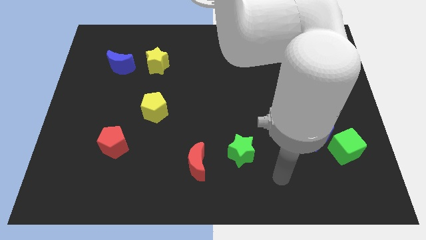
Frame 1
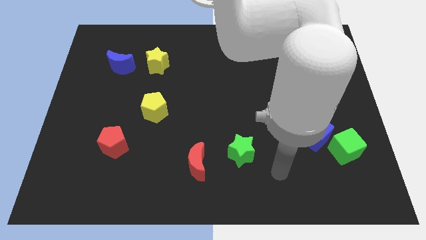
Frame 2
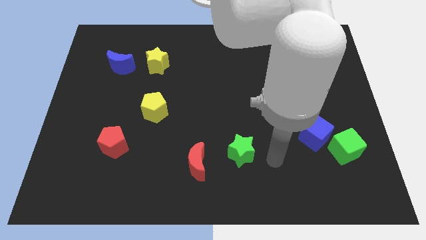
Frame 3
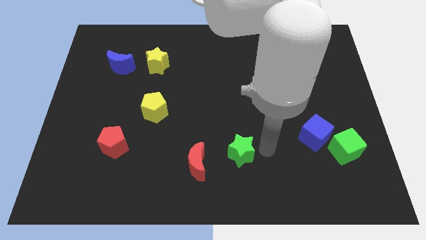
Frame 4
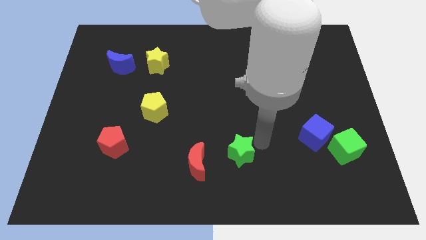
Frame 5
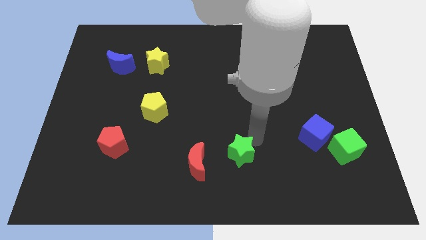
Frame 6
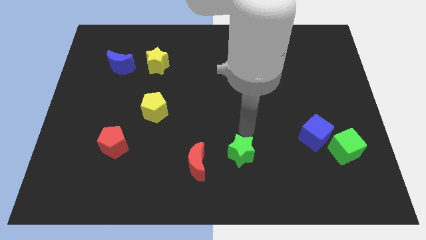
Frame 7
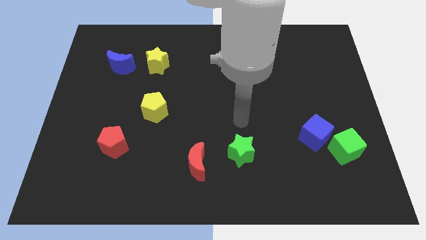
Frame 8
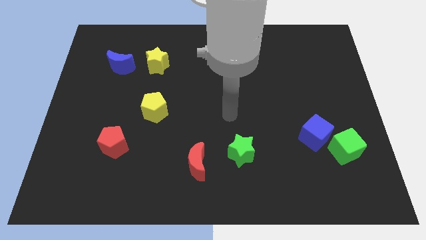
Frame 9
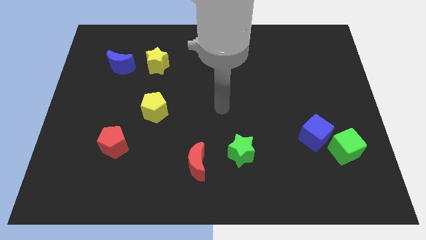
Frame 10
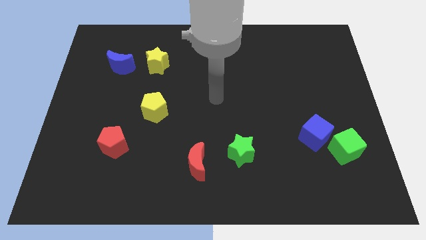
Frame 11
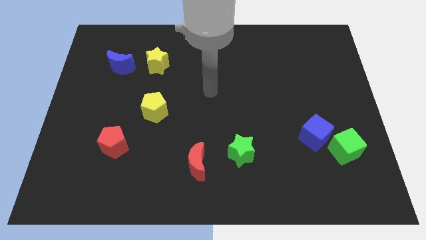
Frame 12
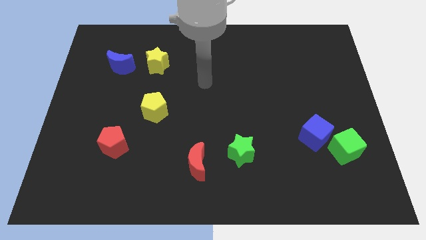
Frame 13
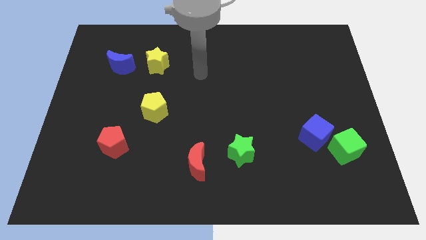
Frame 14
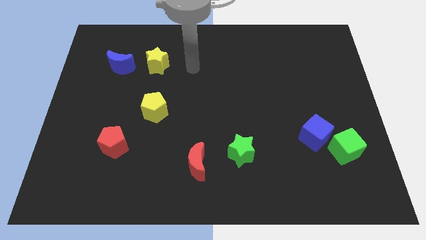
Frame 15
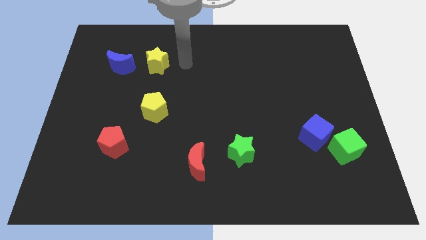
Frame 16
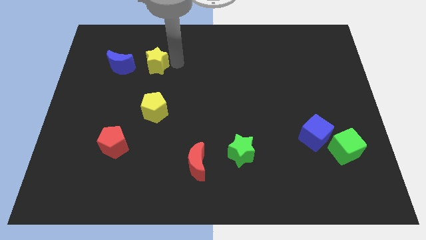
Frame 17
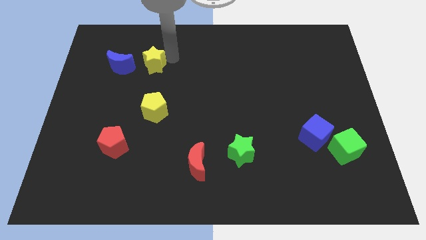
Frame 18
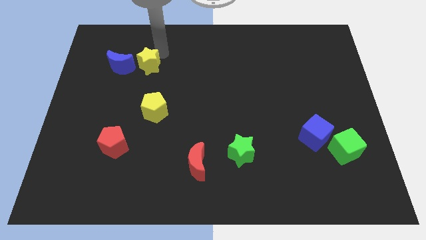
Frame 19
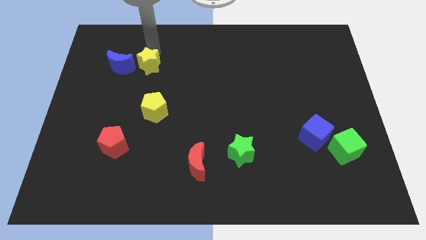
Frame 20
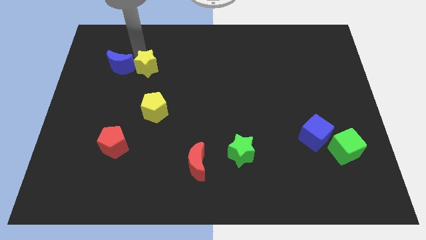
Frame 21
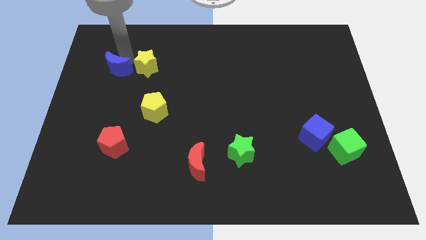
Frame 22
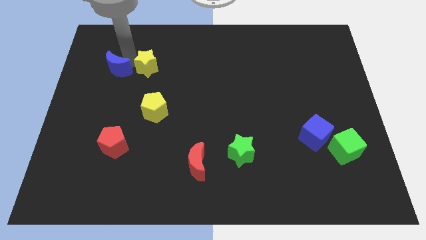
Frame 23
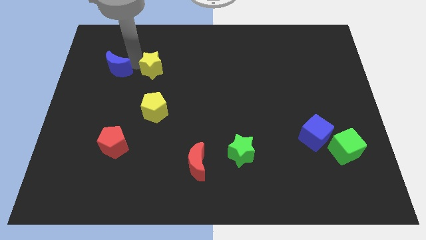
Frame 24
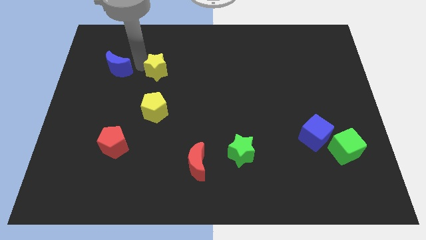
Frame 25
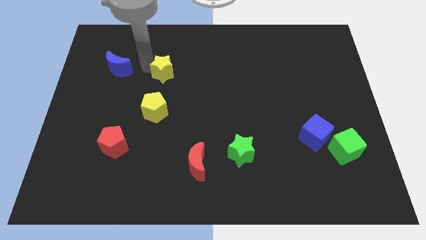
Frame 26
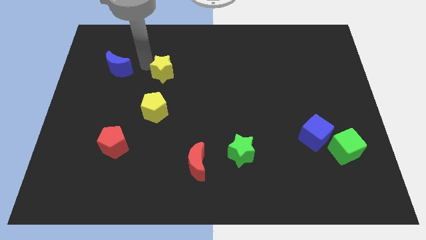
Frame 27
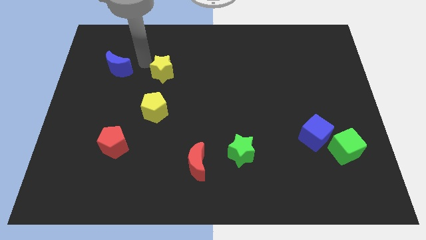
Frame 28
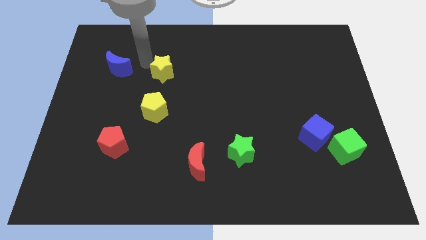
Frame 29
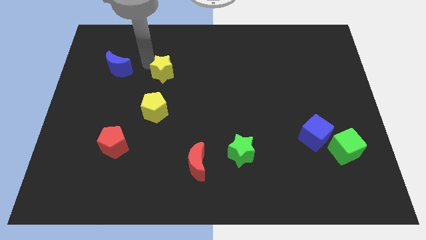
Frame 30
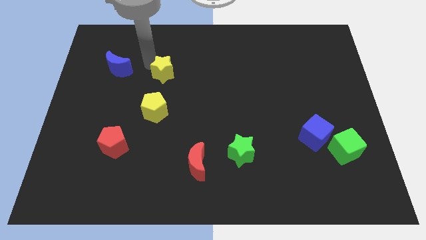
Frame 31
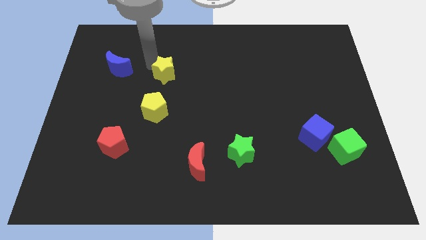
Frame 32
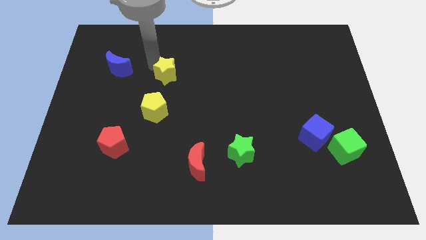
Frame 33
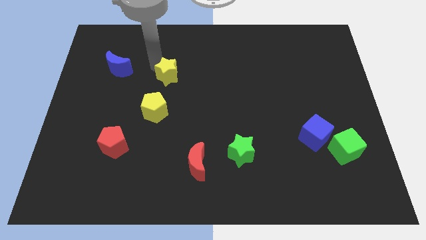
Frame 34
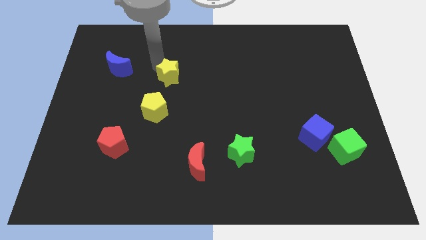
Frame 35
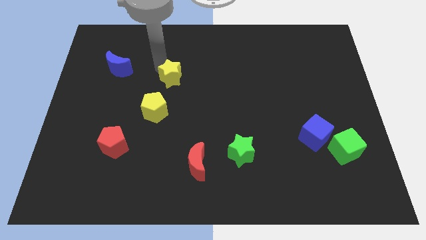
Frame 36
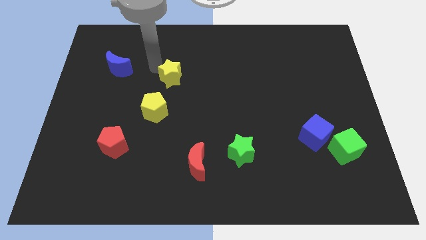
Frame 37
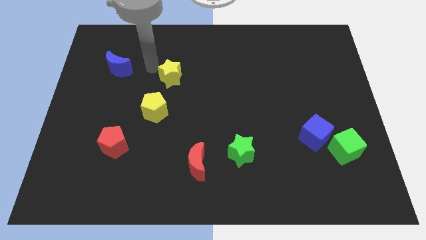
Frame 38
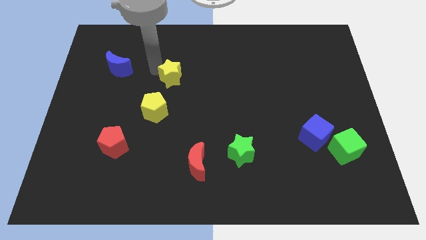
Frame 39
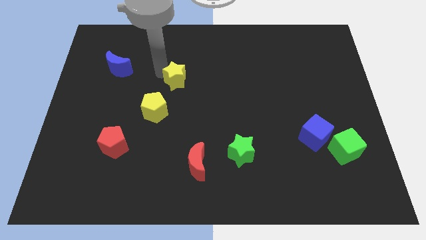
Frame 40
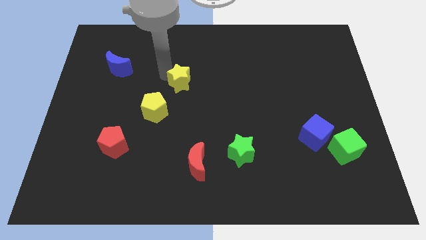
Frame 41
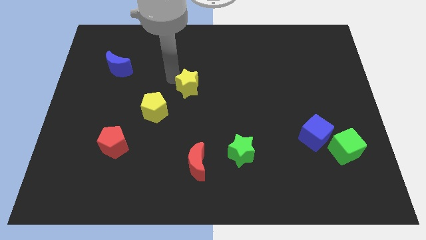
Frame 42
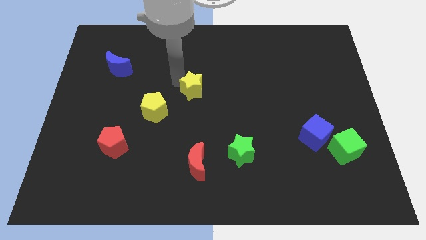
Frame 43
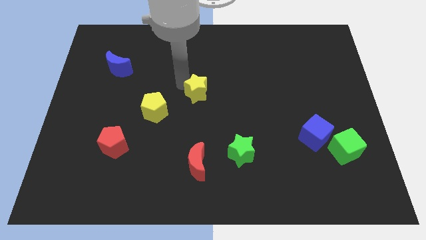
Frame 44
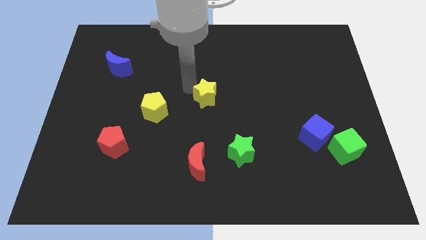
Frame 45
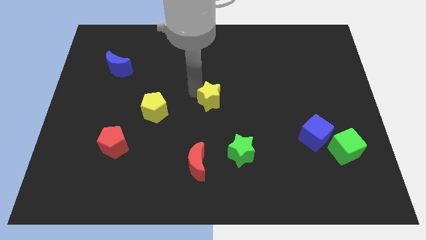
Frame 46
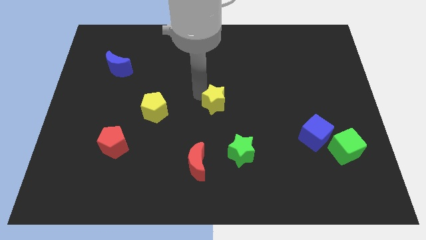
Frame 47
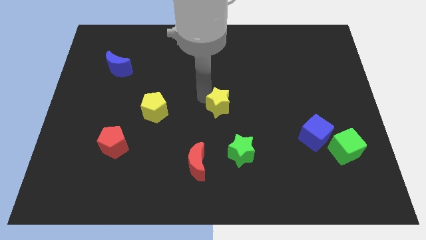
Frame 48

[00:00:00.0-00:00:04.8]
move the yellow star diagonally down and to the right

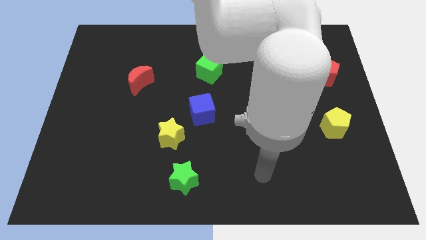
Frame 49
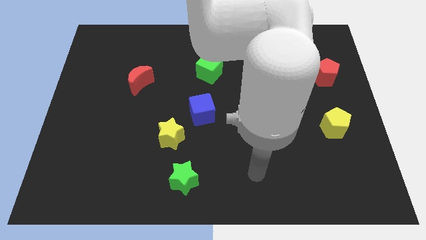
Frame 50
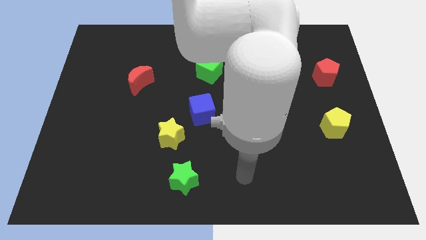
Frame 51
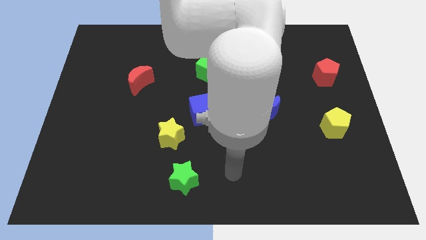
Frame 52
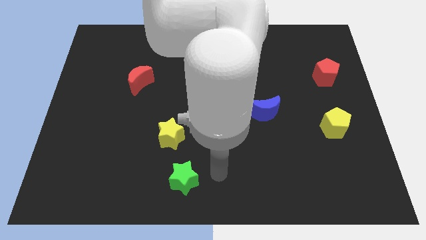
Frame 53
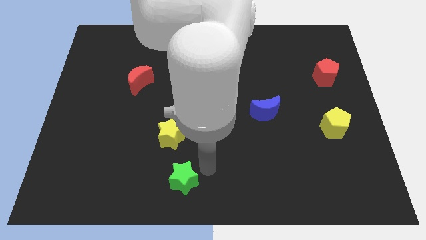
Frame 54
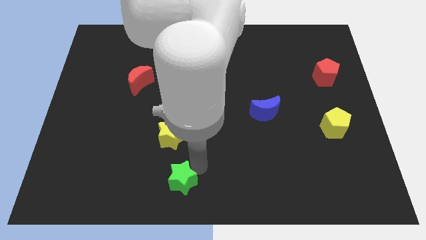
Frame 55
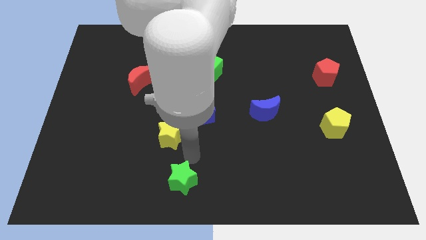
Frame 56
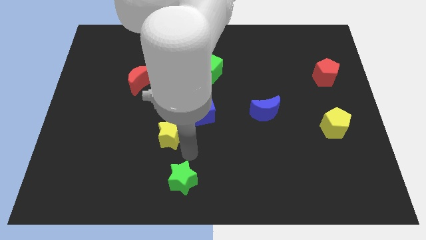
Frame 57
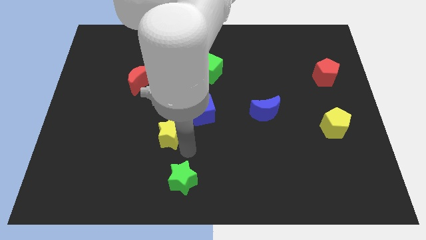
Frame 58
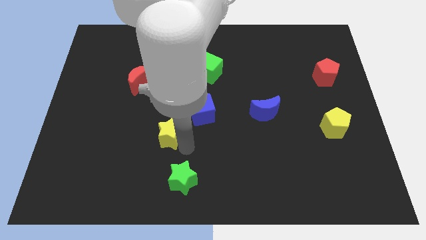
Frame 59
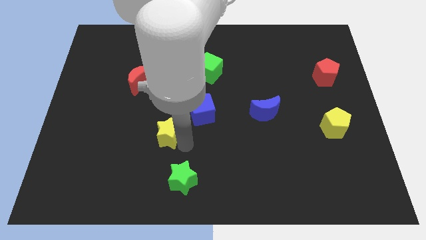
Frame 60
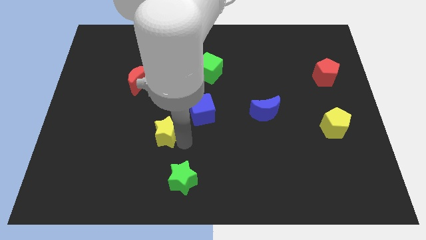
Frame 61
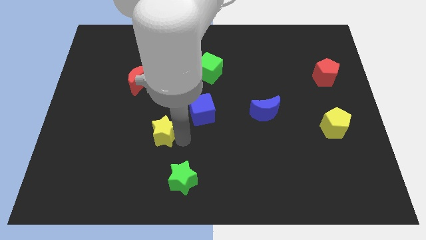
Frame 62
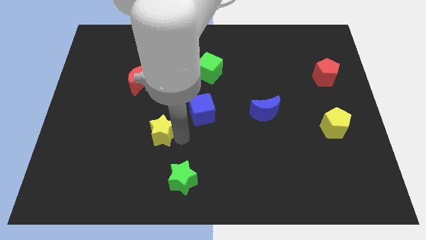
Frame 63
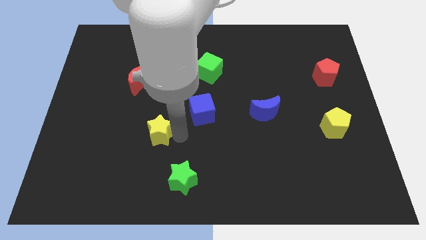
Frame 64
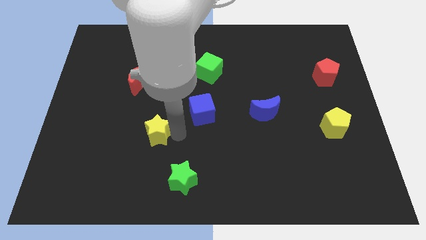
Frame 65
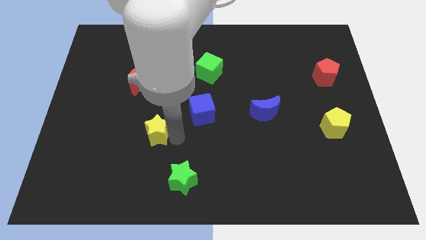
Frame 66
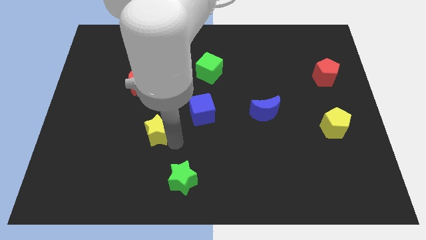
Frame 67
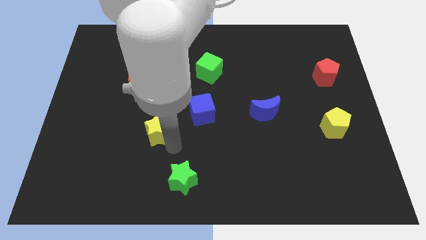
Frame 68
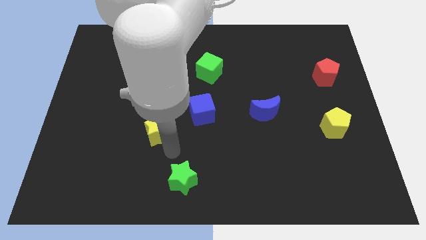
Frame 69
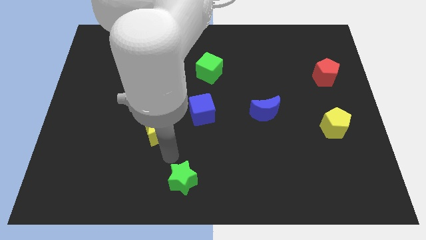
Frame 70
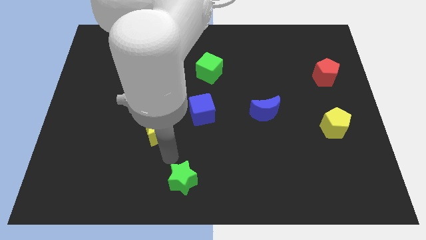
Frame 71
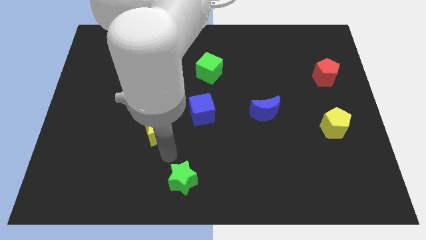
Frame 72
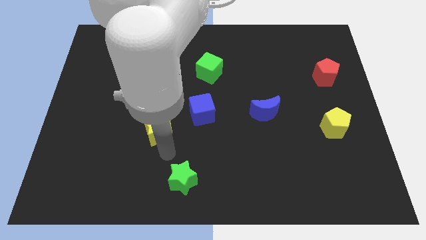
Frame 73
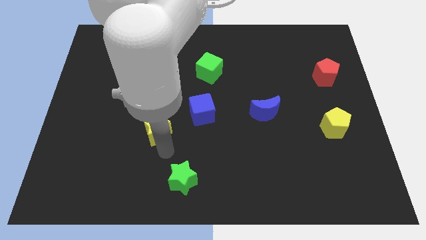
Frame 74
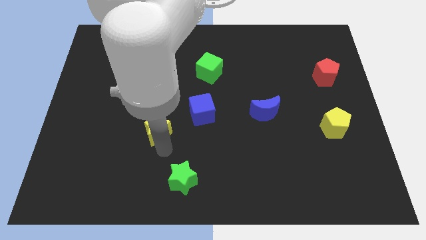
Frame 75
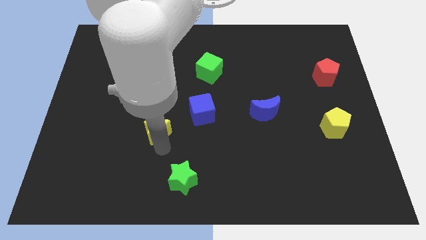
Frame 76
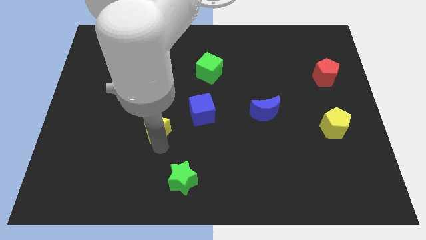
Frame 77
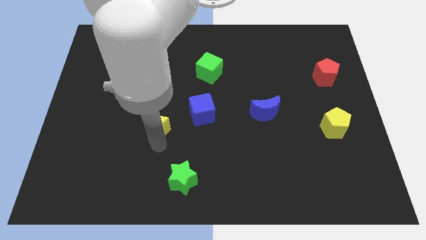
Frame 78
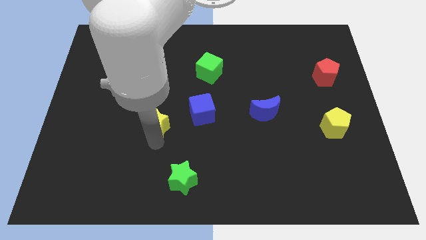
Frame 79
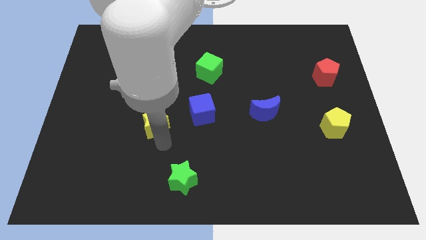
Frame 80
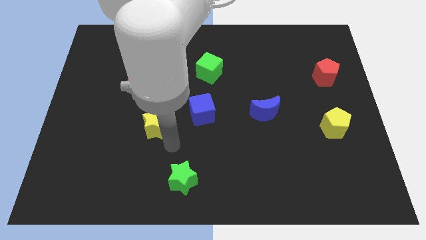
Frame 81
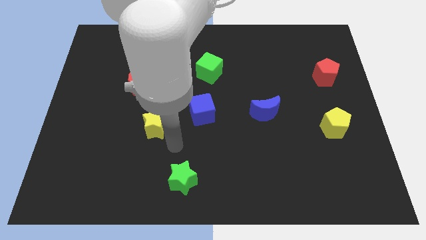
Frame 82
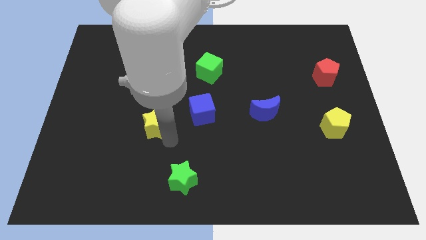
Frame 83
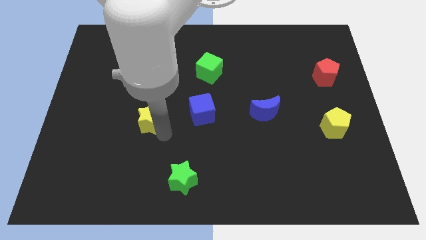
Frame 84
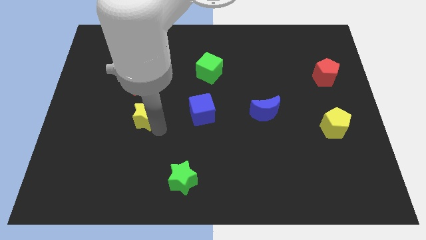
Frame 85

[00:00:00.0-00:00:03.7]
slightly move the yellow star up and to the left diagonally
